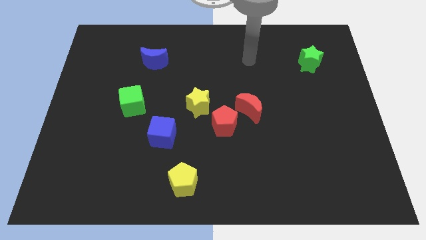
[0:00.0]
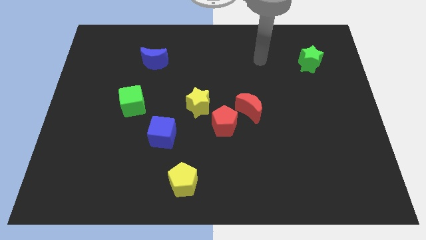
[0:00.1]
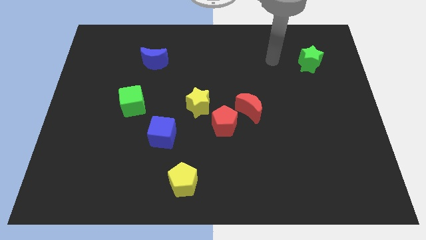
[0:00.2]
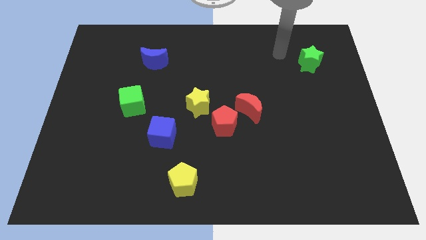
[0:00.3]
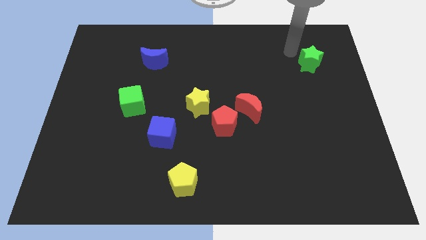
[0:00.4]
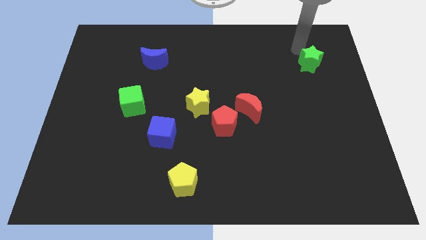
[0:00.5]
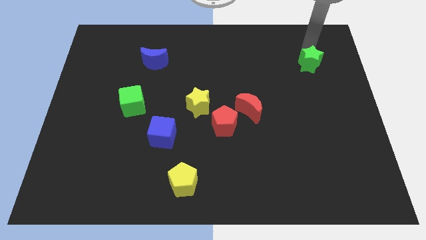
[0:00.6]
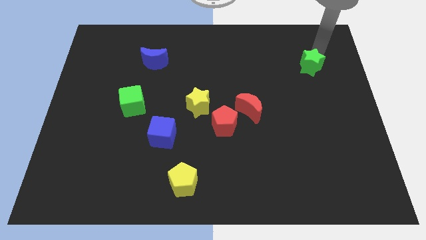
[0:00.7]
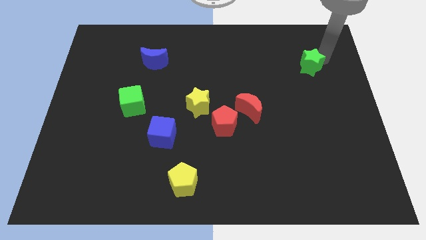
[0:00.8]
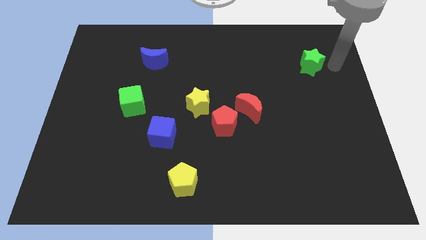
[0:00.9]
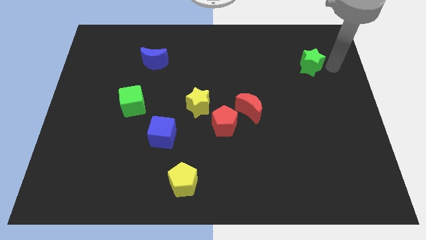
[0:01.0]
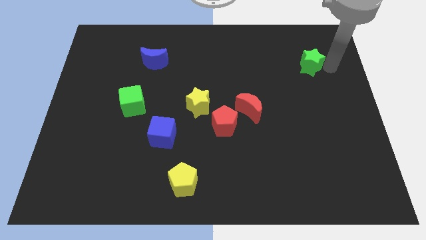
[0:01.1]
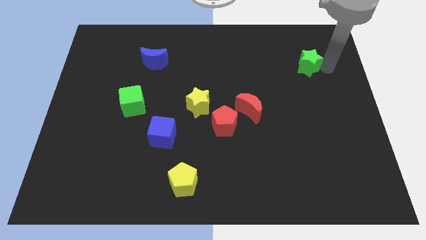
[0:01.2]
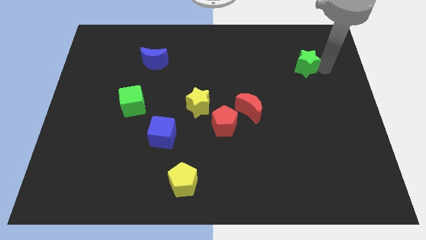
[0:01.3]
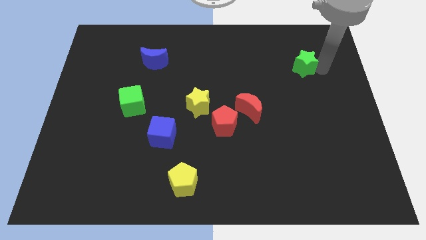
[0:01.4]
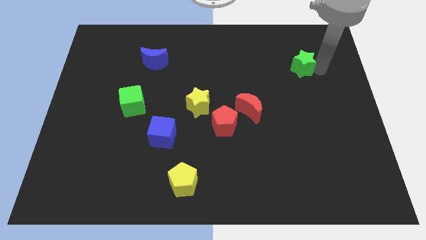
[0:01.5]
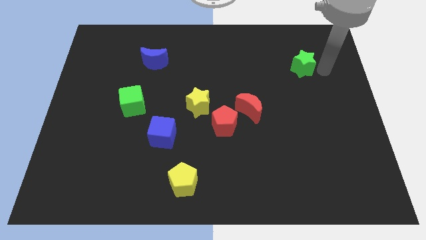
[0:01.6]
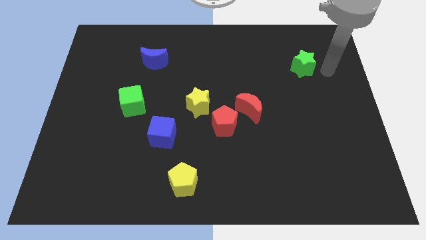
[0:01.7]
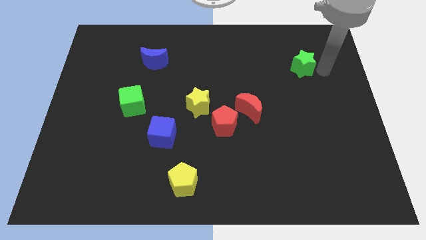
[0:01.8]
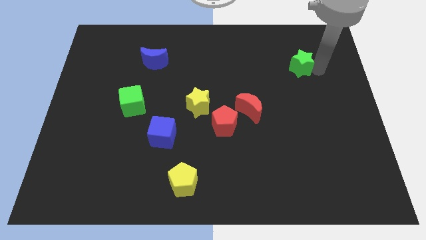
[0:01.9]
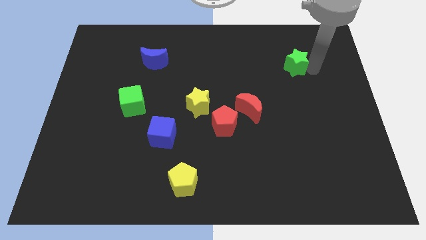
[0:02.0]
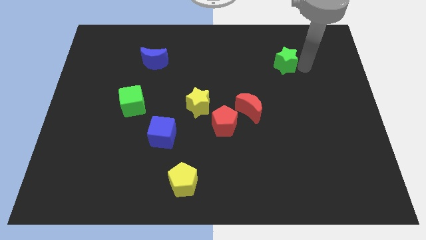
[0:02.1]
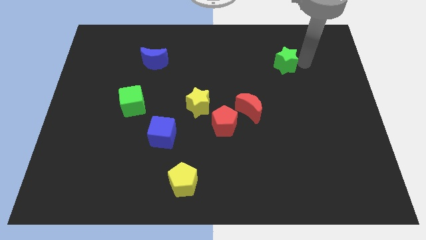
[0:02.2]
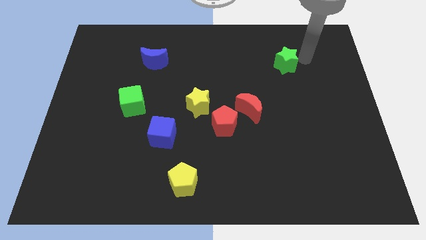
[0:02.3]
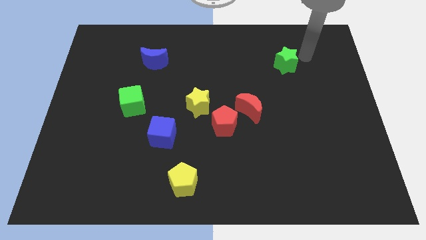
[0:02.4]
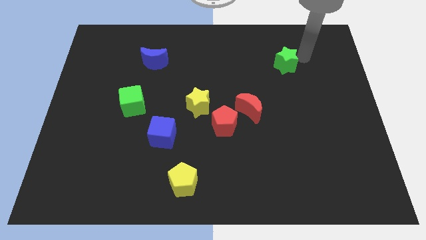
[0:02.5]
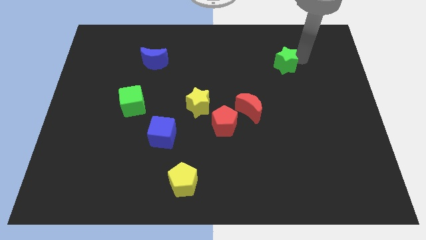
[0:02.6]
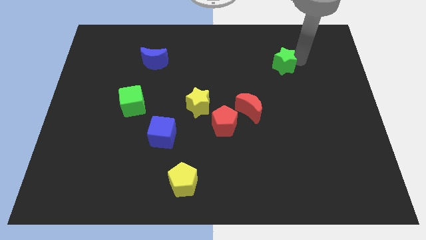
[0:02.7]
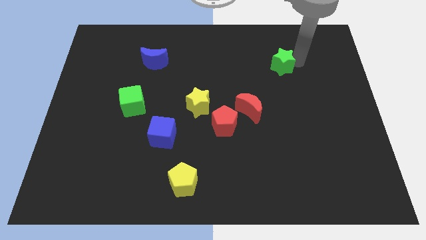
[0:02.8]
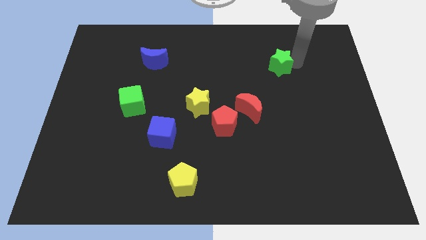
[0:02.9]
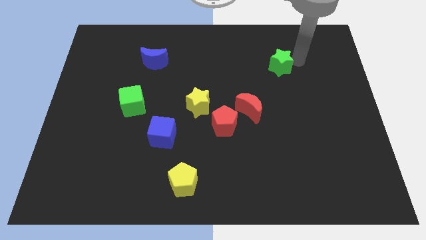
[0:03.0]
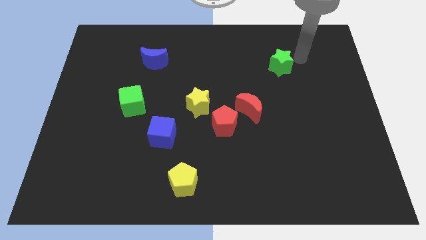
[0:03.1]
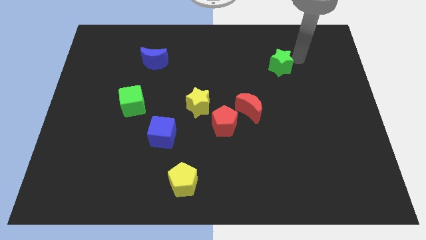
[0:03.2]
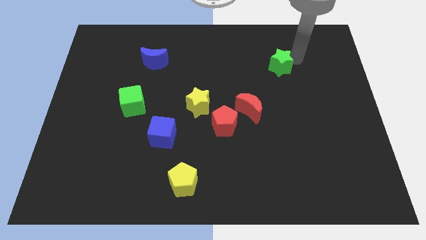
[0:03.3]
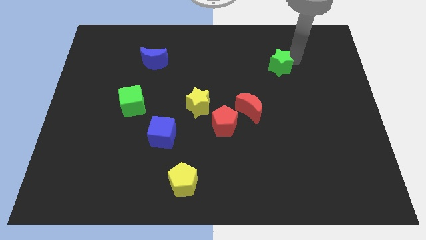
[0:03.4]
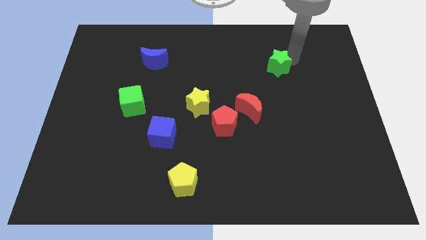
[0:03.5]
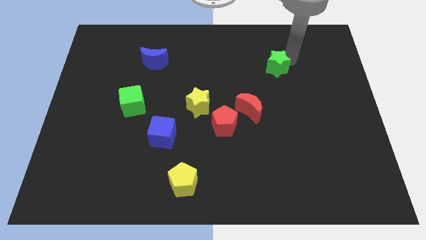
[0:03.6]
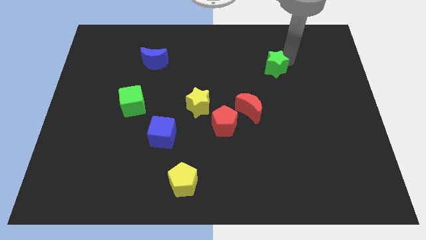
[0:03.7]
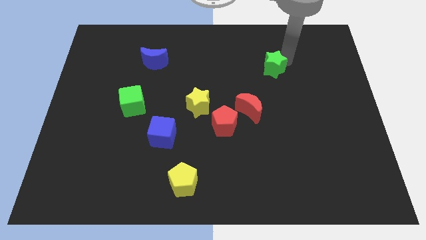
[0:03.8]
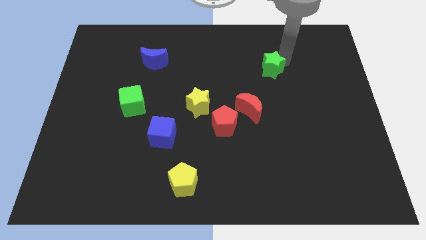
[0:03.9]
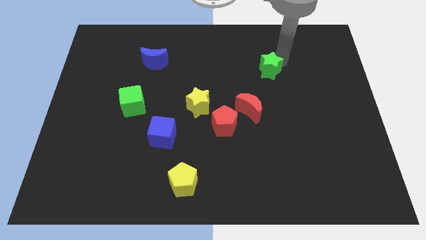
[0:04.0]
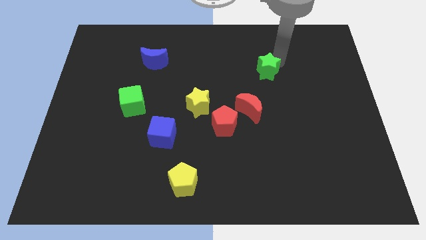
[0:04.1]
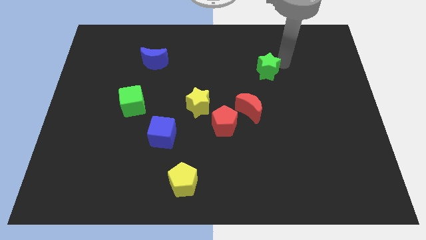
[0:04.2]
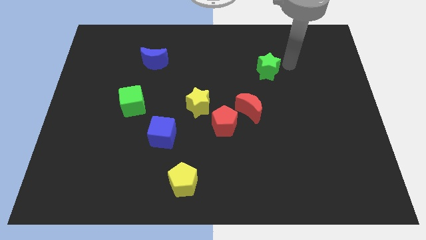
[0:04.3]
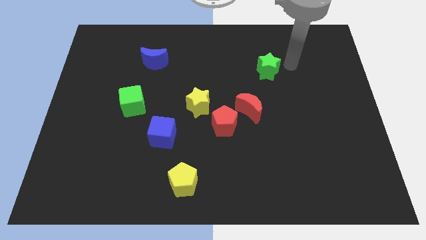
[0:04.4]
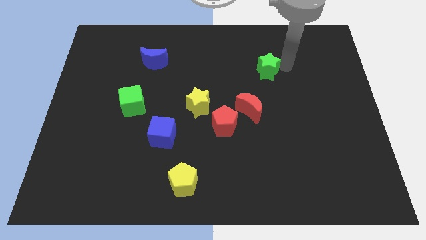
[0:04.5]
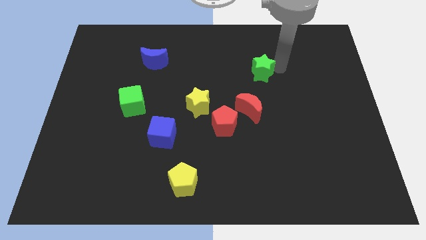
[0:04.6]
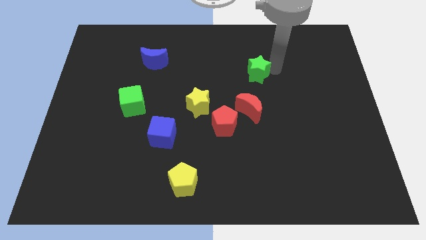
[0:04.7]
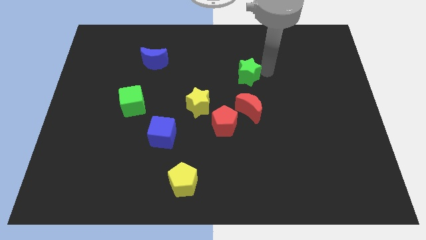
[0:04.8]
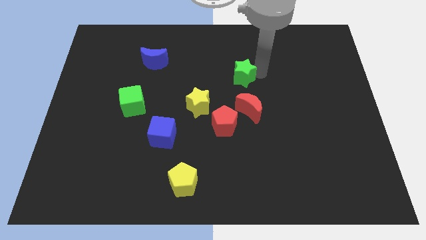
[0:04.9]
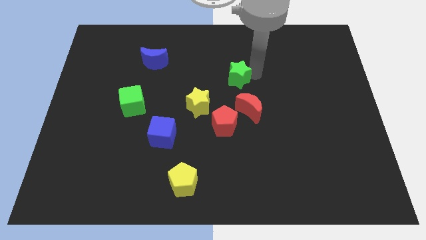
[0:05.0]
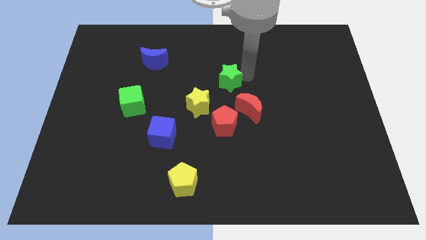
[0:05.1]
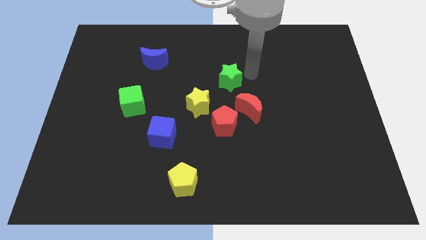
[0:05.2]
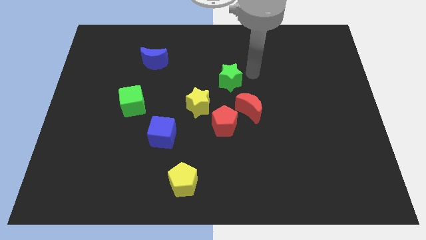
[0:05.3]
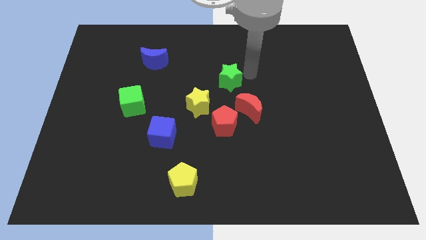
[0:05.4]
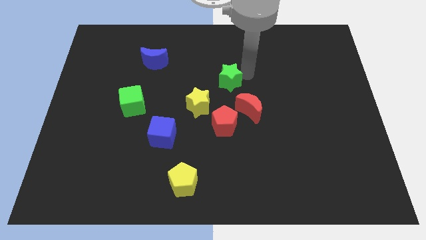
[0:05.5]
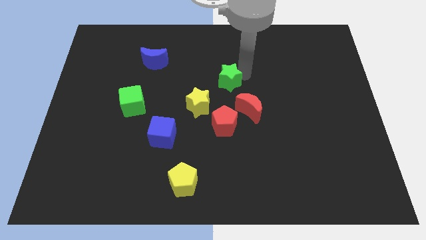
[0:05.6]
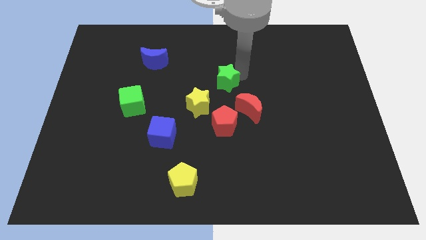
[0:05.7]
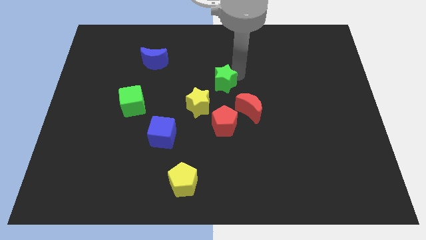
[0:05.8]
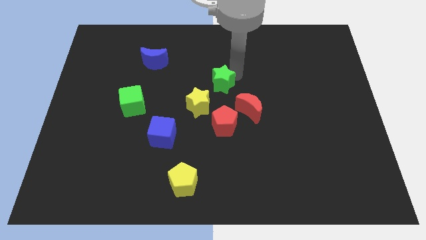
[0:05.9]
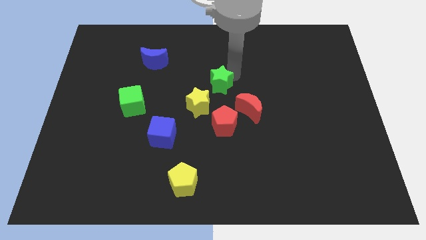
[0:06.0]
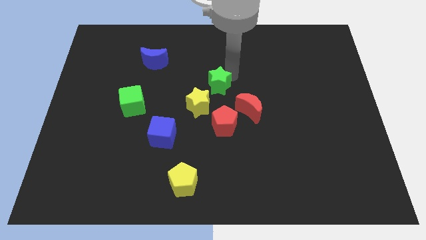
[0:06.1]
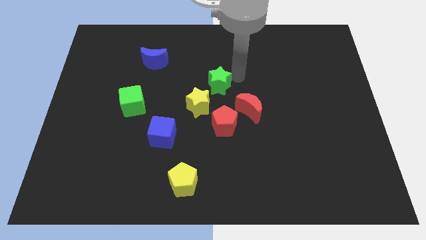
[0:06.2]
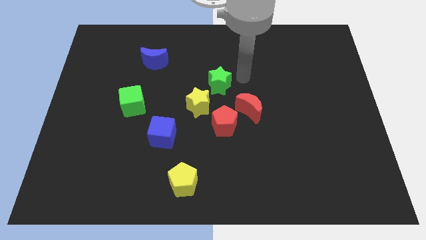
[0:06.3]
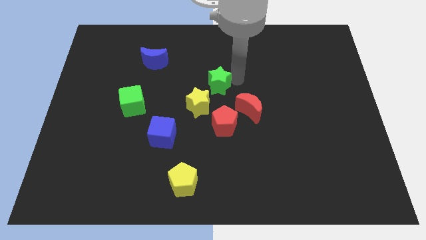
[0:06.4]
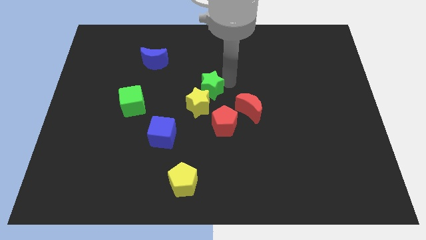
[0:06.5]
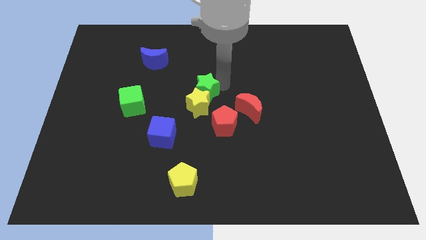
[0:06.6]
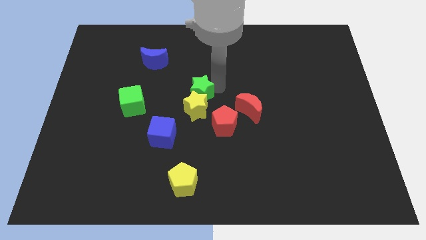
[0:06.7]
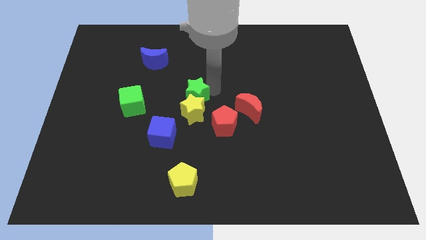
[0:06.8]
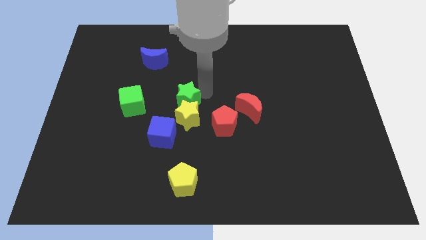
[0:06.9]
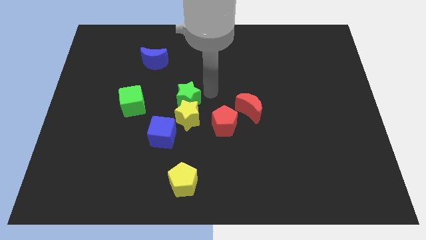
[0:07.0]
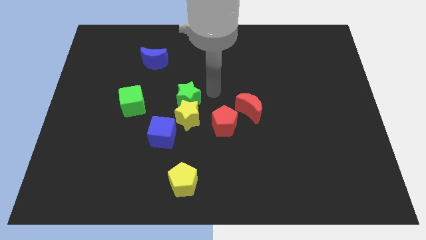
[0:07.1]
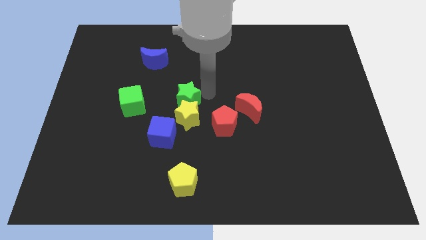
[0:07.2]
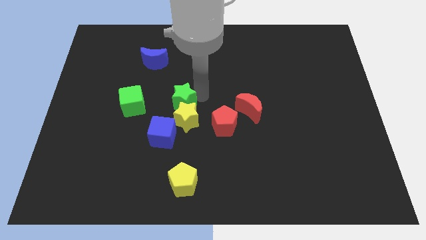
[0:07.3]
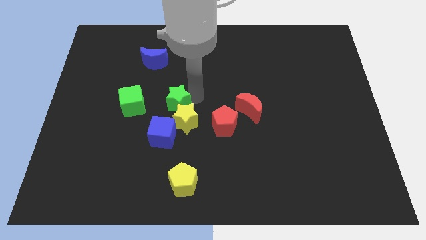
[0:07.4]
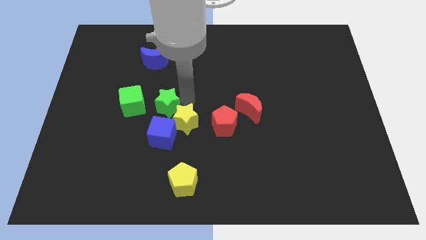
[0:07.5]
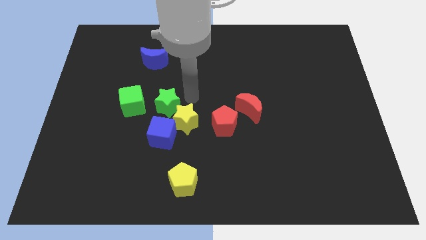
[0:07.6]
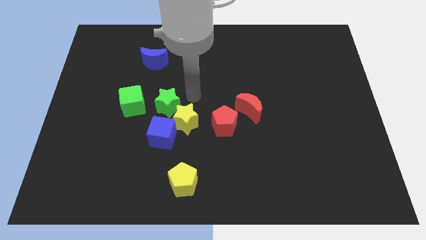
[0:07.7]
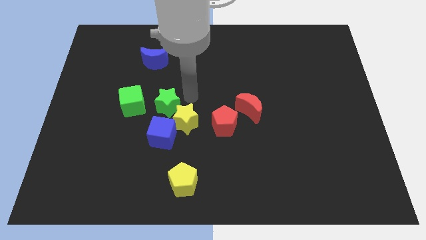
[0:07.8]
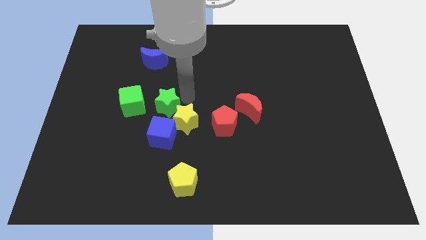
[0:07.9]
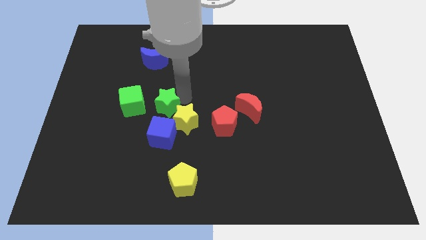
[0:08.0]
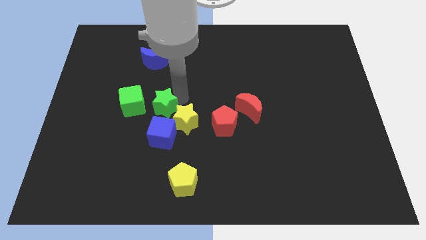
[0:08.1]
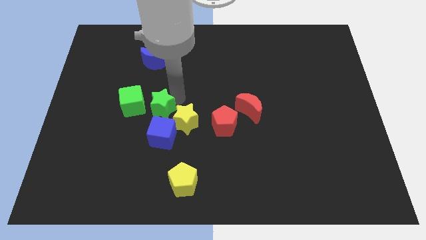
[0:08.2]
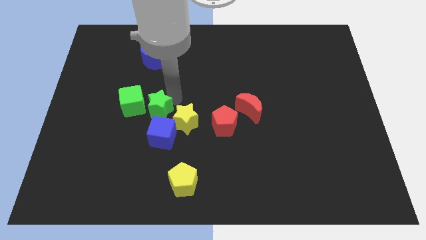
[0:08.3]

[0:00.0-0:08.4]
push the green star diagonally up and to the left of the blue cube
